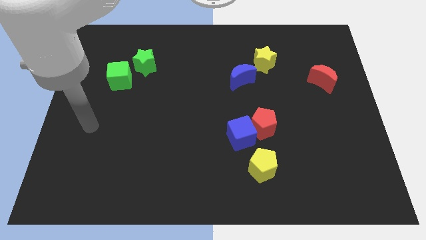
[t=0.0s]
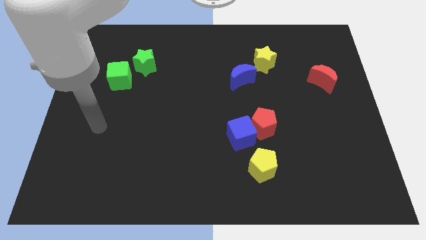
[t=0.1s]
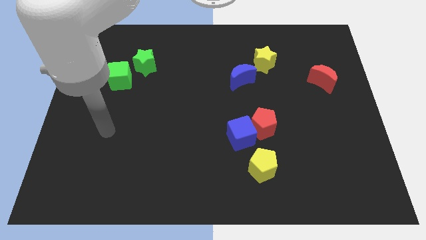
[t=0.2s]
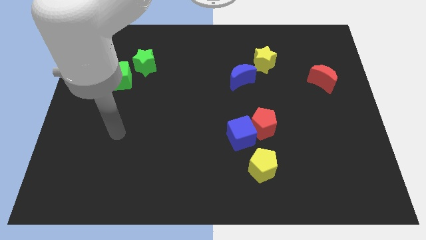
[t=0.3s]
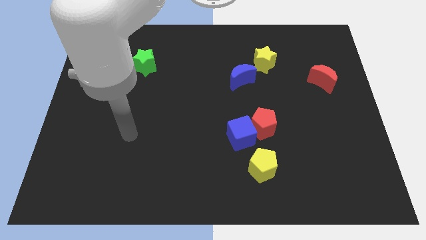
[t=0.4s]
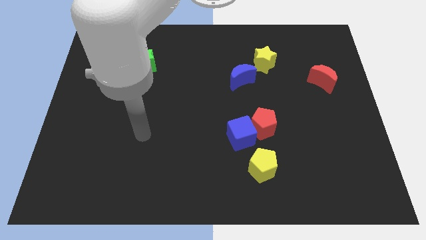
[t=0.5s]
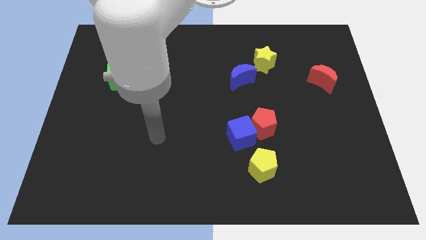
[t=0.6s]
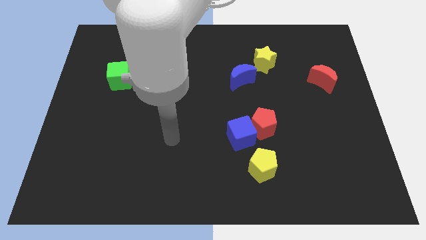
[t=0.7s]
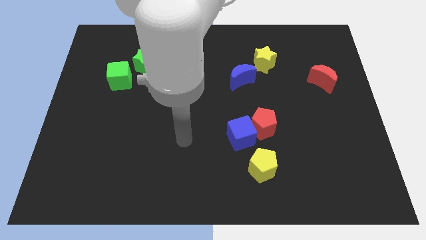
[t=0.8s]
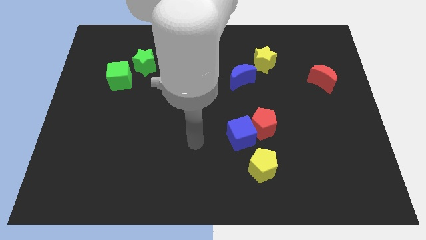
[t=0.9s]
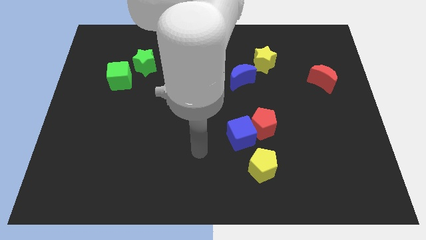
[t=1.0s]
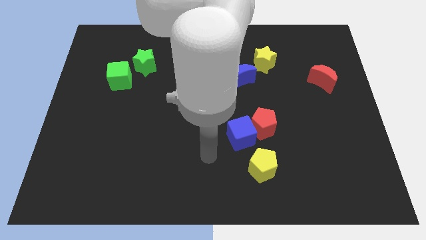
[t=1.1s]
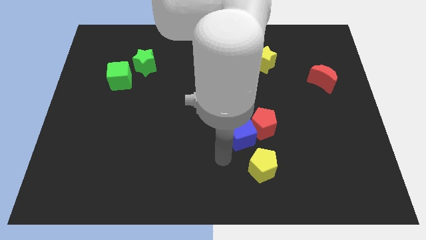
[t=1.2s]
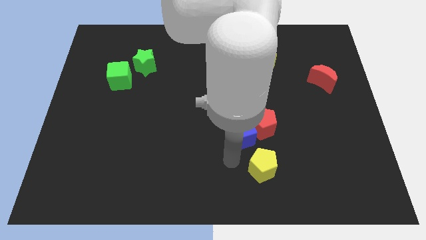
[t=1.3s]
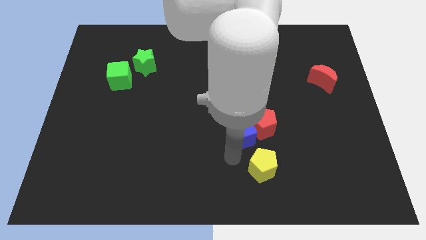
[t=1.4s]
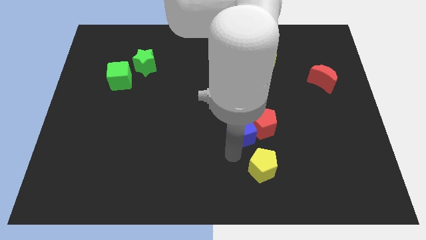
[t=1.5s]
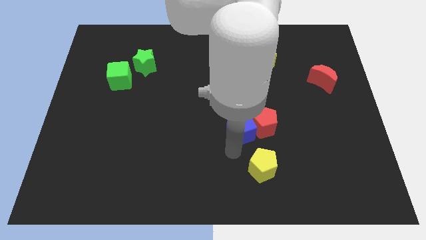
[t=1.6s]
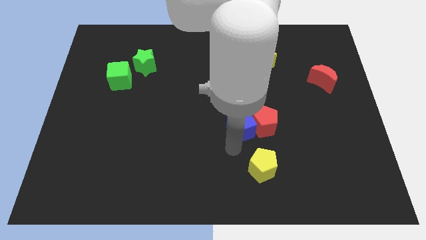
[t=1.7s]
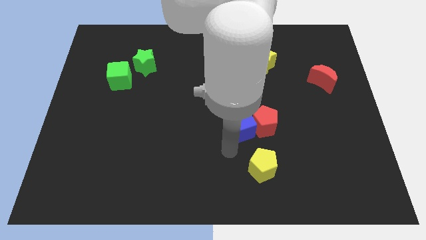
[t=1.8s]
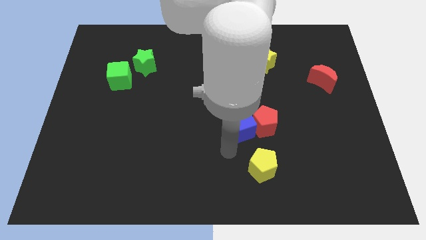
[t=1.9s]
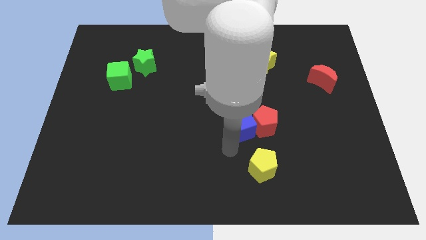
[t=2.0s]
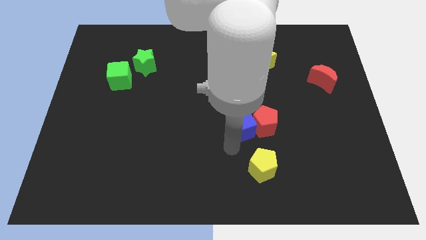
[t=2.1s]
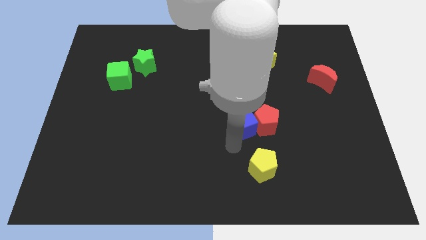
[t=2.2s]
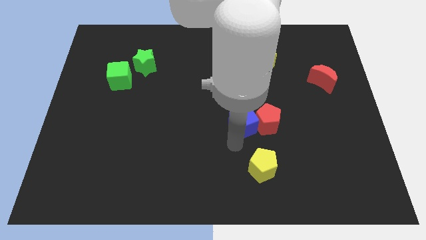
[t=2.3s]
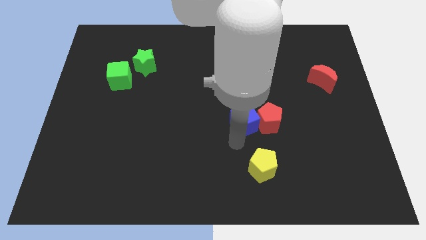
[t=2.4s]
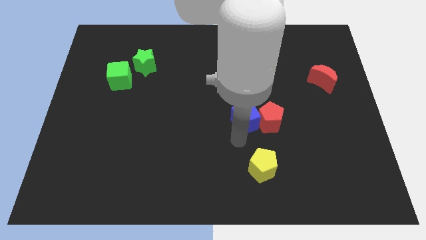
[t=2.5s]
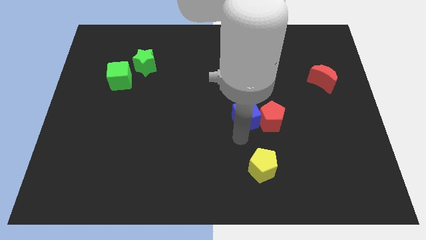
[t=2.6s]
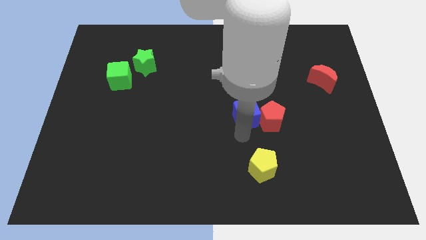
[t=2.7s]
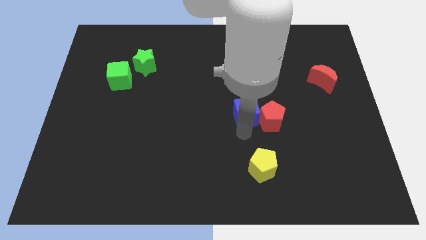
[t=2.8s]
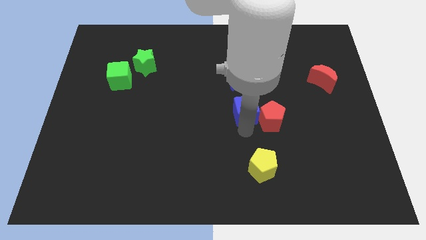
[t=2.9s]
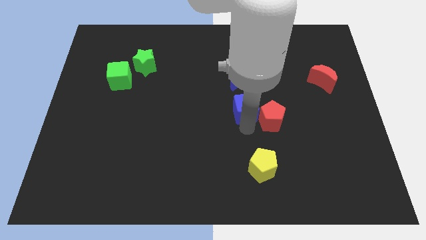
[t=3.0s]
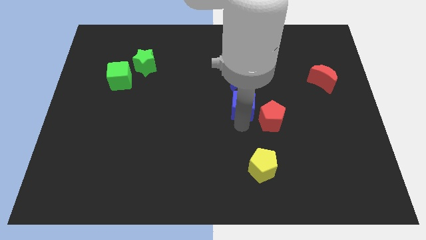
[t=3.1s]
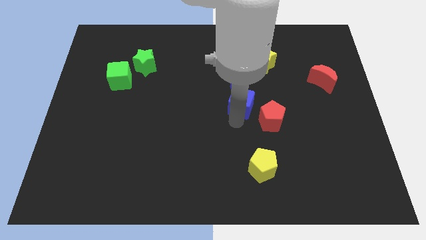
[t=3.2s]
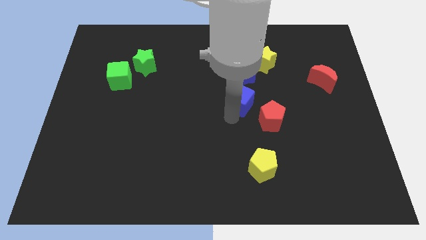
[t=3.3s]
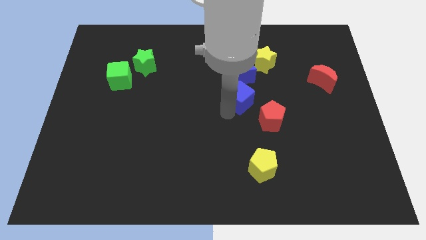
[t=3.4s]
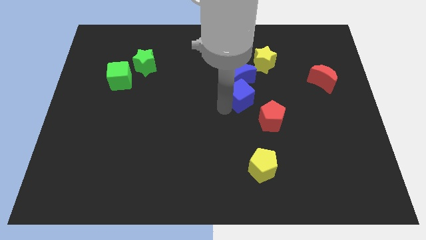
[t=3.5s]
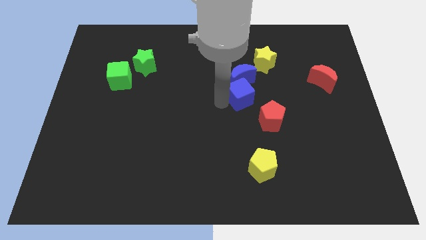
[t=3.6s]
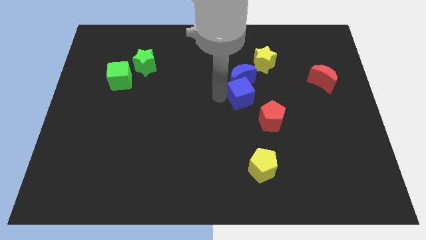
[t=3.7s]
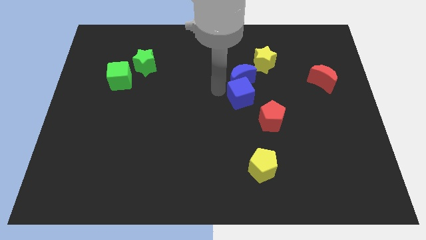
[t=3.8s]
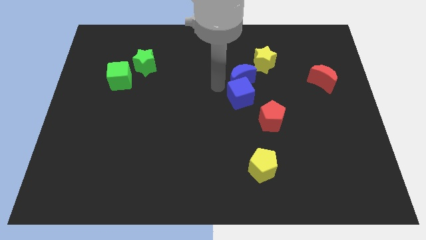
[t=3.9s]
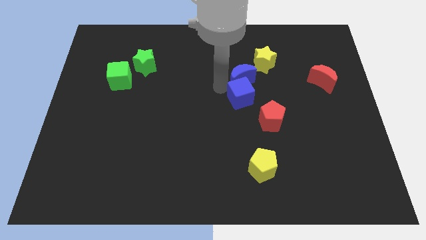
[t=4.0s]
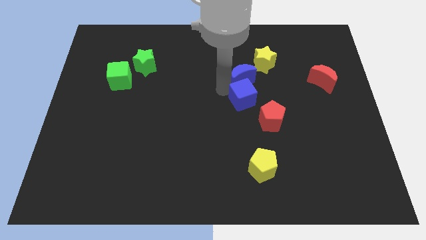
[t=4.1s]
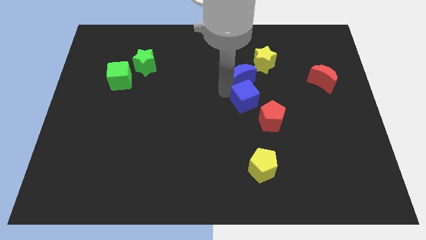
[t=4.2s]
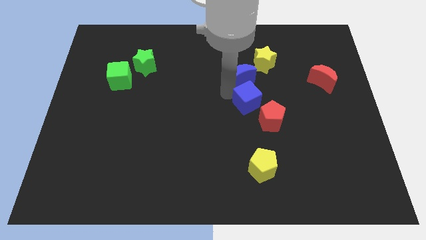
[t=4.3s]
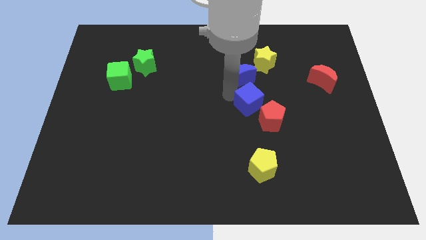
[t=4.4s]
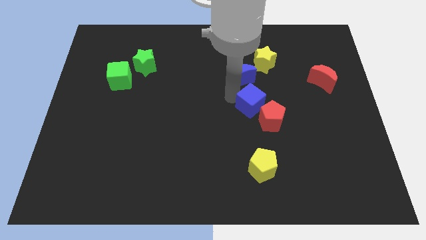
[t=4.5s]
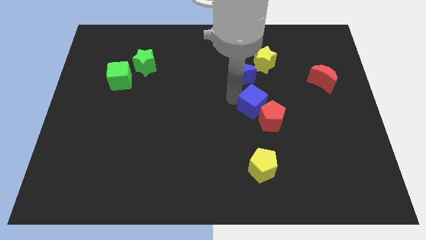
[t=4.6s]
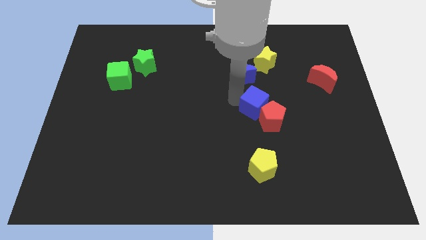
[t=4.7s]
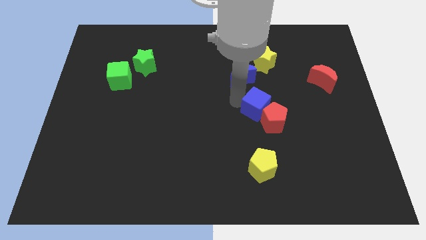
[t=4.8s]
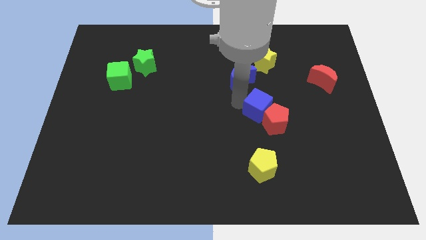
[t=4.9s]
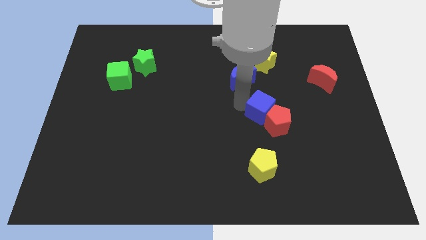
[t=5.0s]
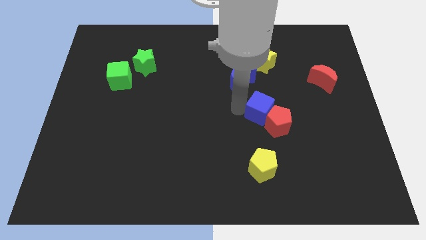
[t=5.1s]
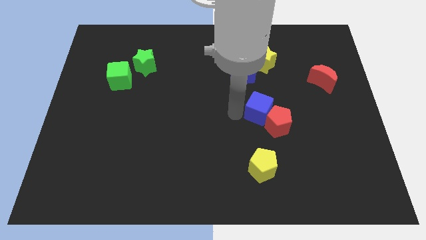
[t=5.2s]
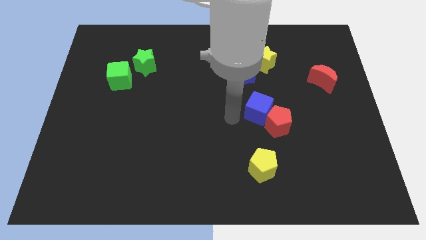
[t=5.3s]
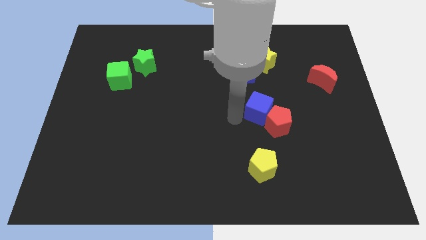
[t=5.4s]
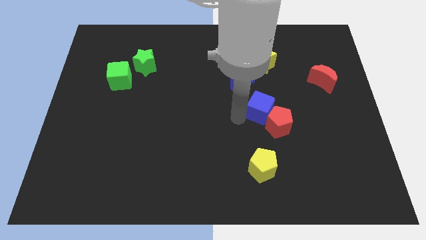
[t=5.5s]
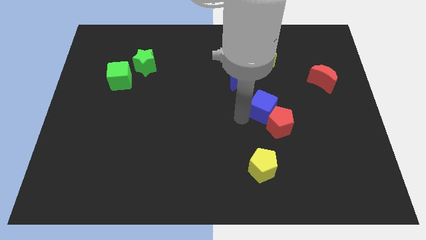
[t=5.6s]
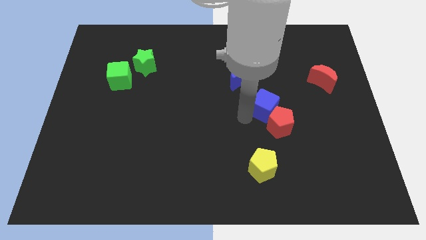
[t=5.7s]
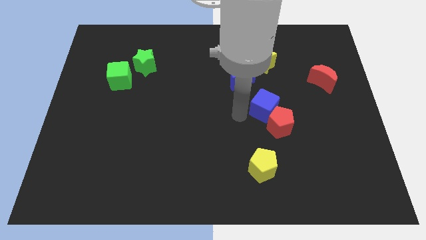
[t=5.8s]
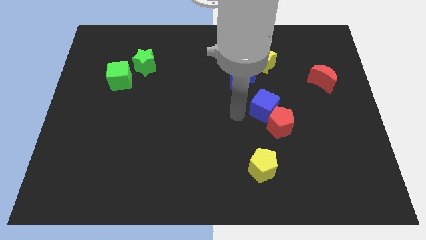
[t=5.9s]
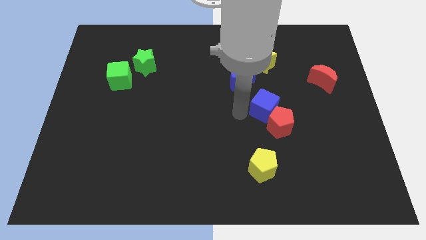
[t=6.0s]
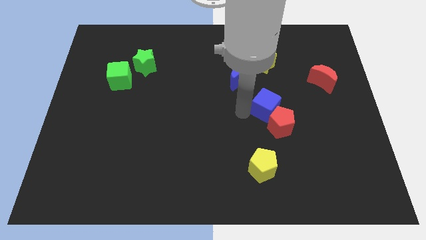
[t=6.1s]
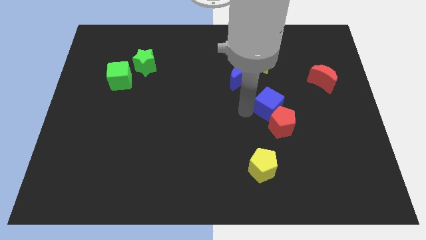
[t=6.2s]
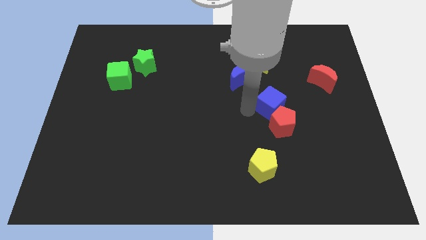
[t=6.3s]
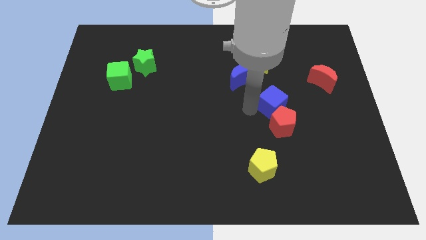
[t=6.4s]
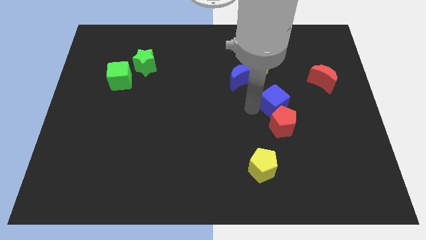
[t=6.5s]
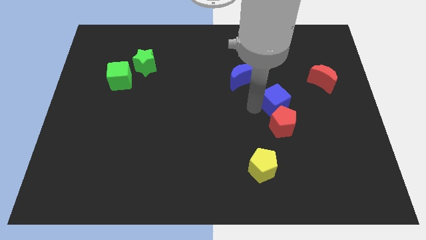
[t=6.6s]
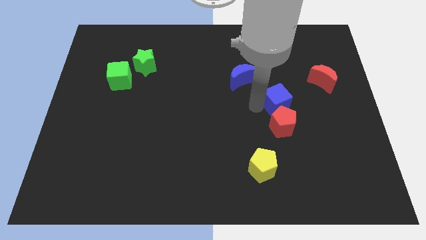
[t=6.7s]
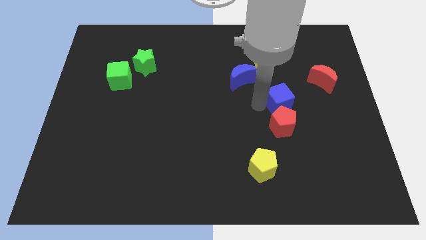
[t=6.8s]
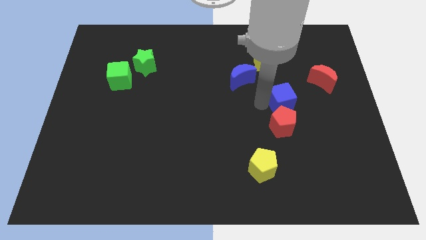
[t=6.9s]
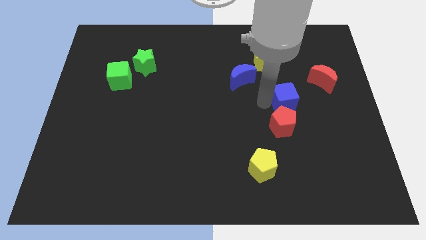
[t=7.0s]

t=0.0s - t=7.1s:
slide the blue cube to the bottom left side of the red moon

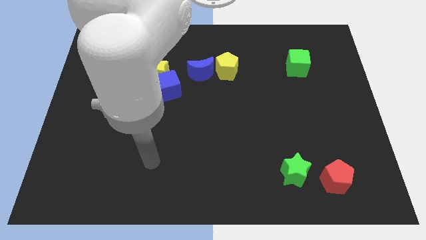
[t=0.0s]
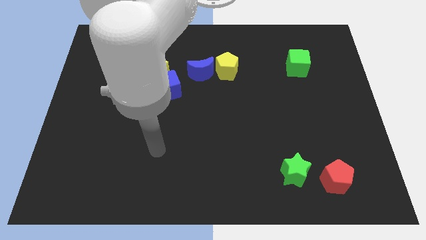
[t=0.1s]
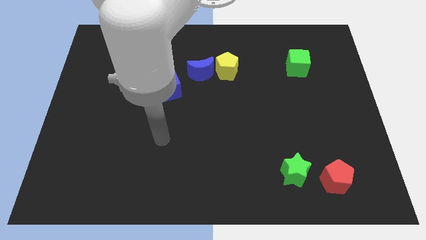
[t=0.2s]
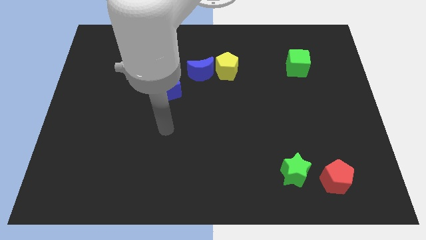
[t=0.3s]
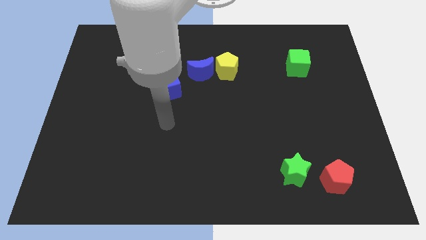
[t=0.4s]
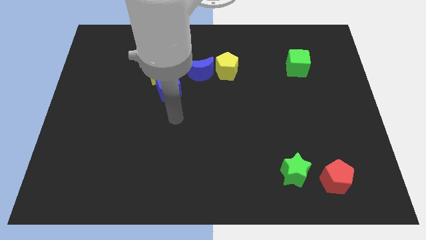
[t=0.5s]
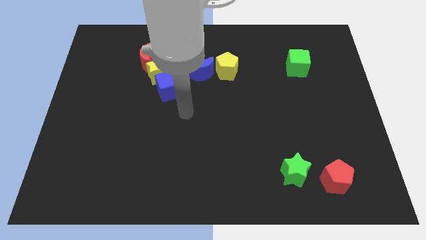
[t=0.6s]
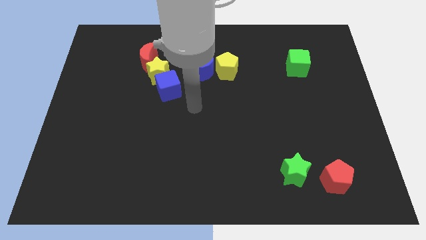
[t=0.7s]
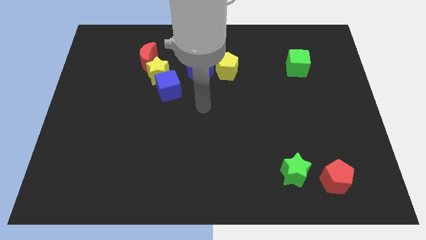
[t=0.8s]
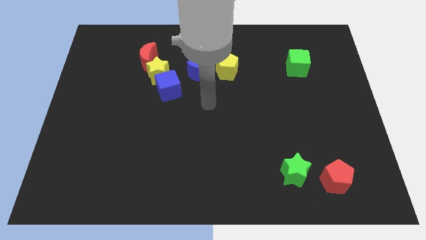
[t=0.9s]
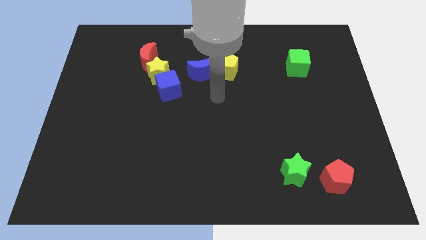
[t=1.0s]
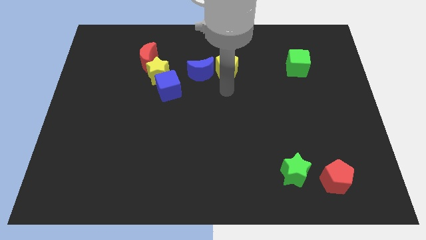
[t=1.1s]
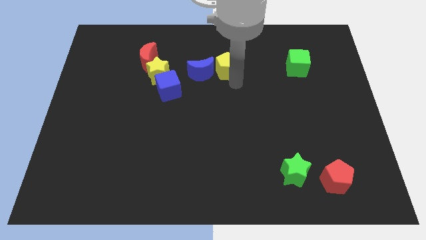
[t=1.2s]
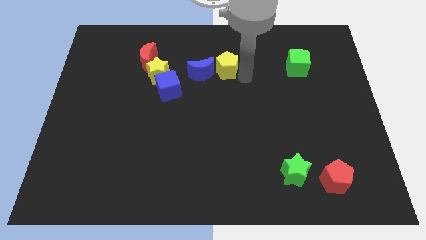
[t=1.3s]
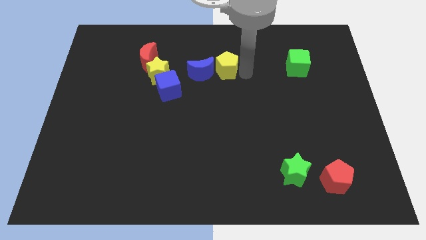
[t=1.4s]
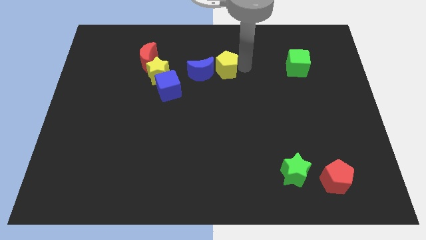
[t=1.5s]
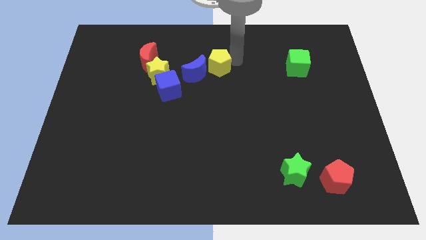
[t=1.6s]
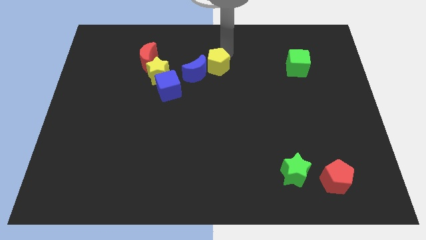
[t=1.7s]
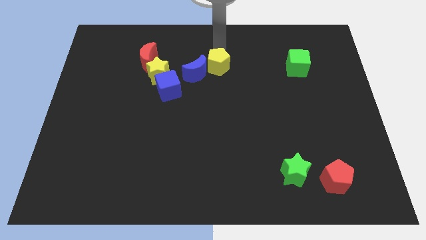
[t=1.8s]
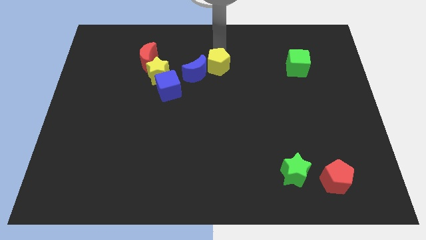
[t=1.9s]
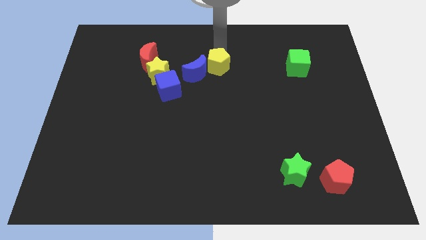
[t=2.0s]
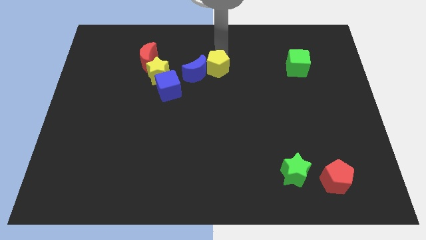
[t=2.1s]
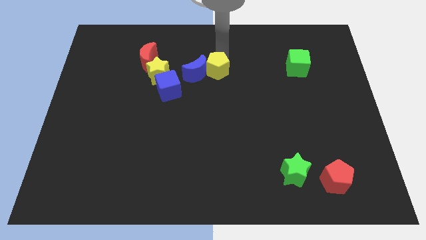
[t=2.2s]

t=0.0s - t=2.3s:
slide the yellow pentagon to the bottom right of the blue moon
